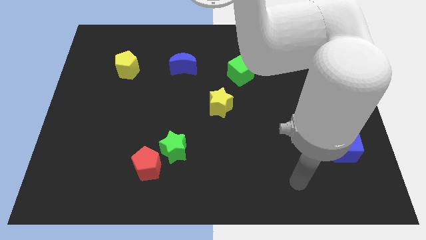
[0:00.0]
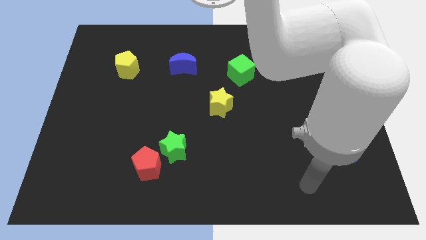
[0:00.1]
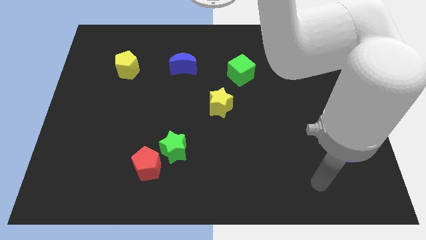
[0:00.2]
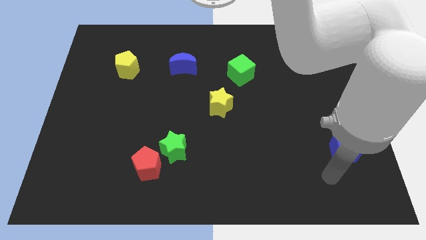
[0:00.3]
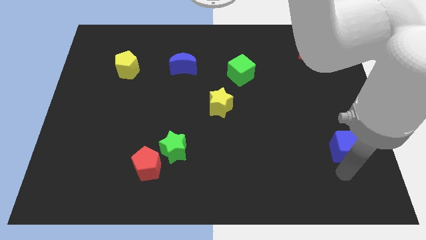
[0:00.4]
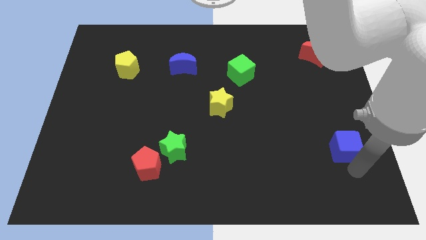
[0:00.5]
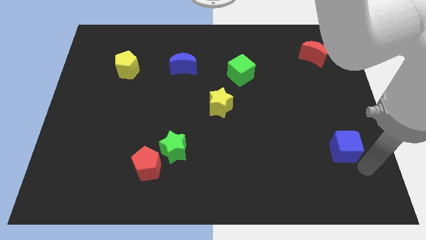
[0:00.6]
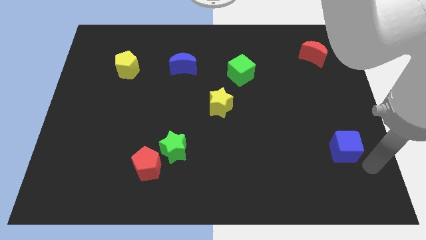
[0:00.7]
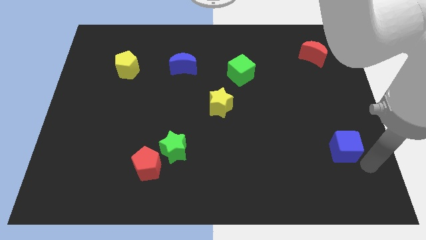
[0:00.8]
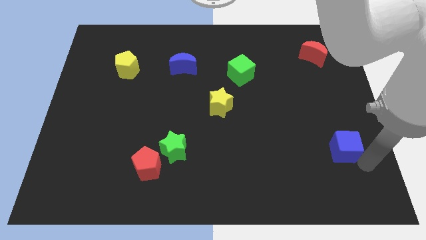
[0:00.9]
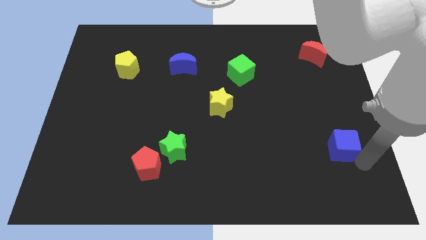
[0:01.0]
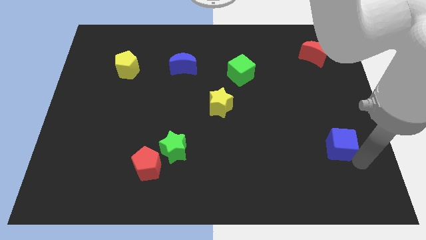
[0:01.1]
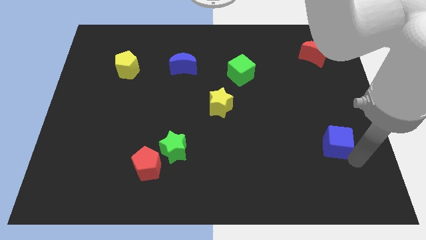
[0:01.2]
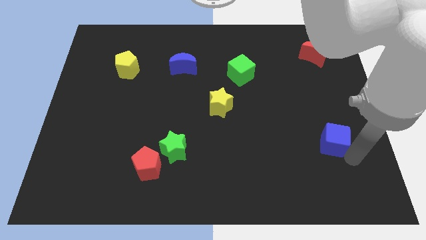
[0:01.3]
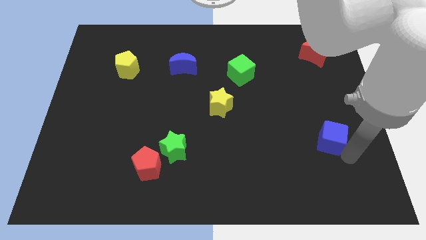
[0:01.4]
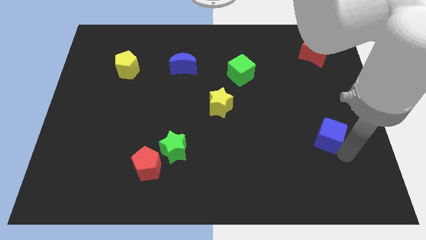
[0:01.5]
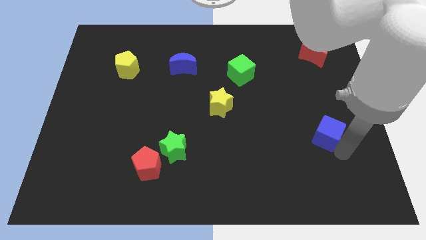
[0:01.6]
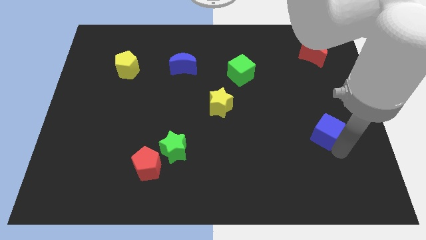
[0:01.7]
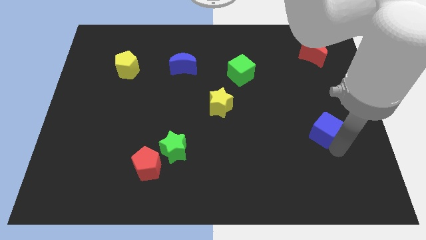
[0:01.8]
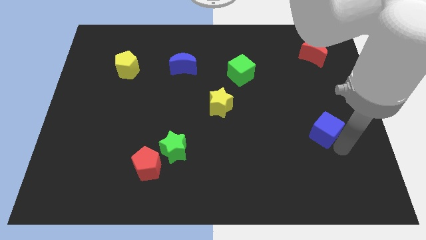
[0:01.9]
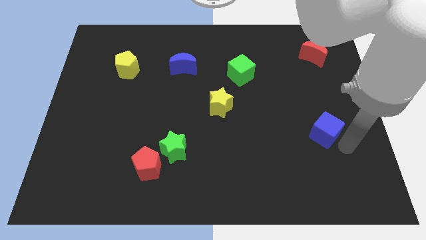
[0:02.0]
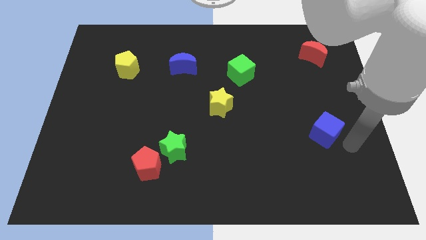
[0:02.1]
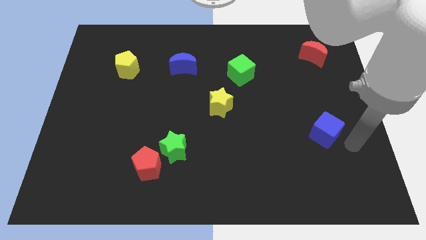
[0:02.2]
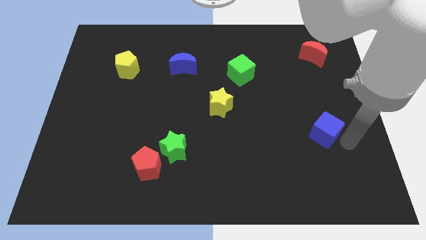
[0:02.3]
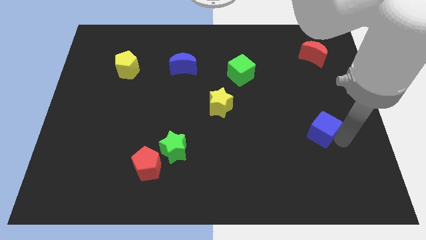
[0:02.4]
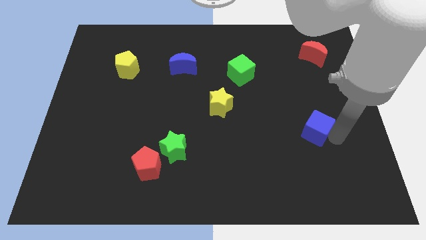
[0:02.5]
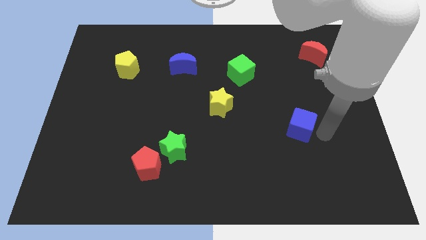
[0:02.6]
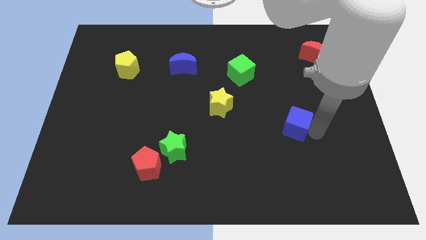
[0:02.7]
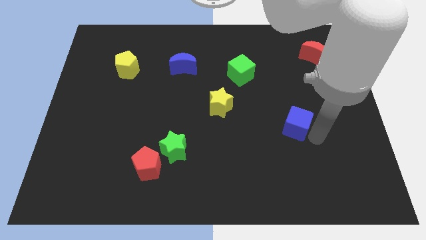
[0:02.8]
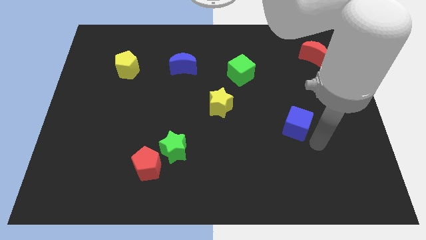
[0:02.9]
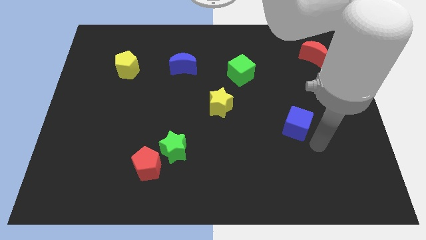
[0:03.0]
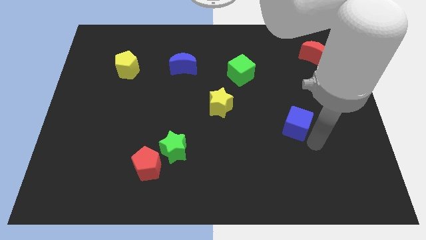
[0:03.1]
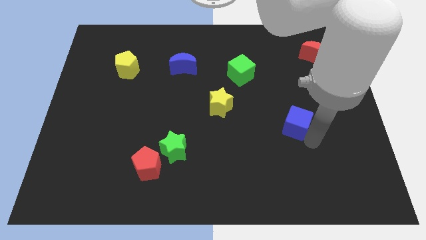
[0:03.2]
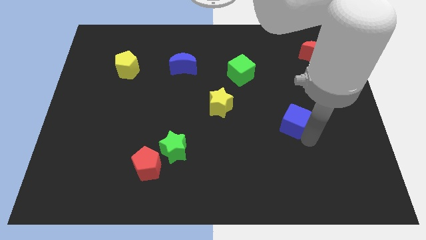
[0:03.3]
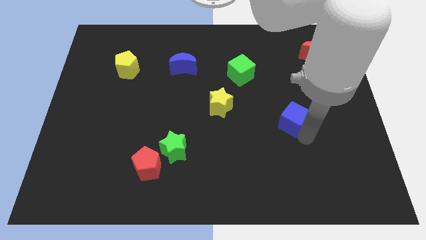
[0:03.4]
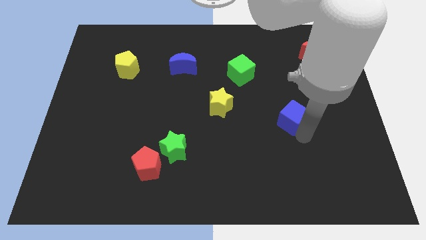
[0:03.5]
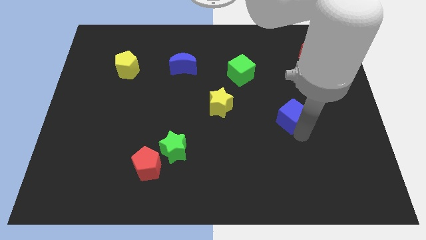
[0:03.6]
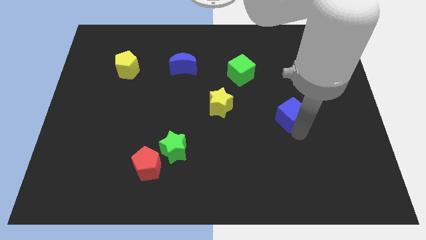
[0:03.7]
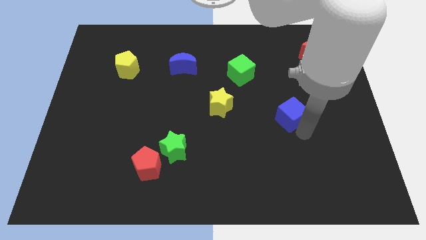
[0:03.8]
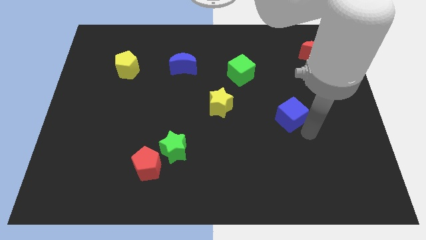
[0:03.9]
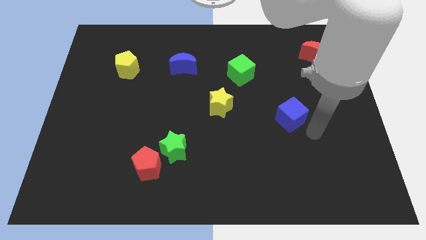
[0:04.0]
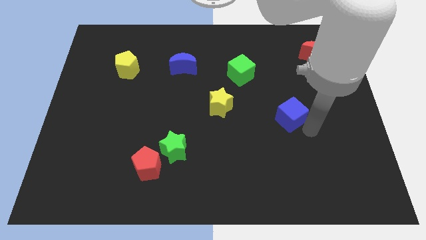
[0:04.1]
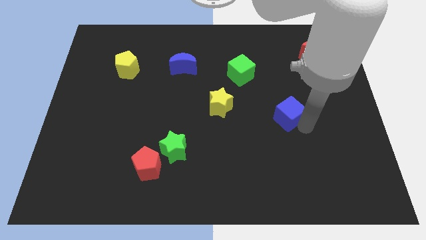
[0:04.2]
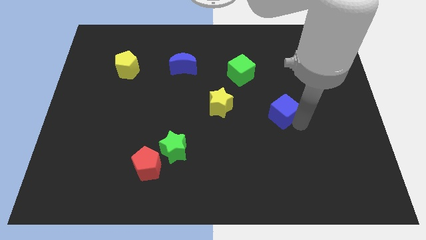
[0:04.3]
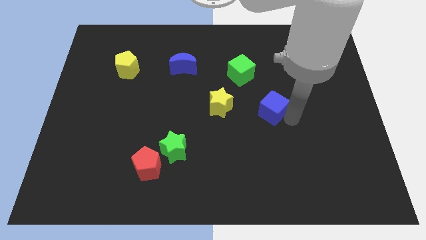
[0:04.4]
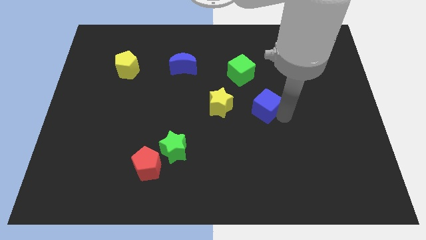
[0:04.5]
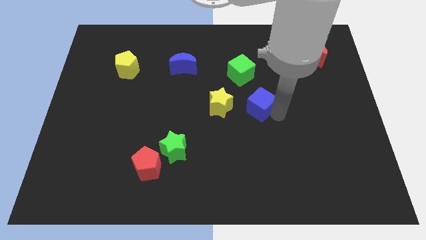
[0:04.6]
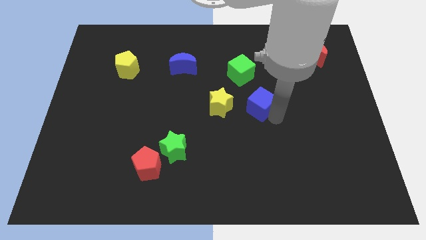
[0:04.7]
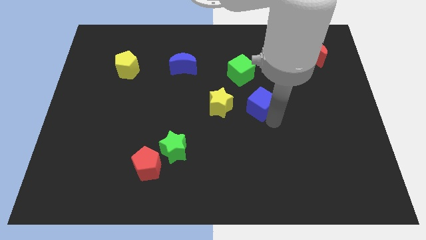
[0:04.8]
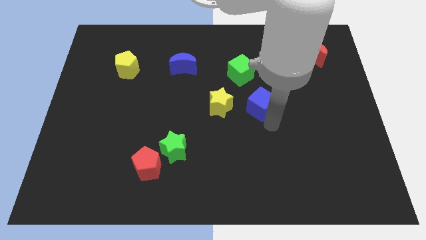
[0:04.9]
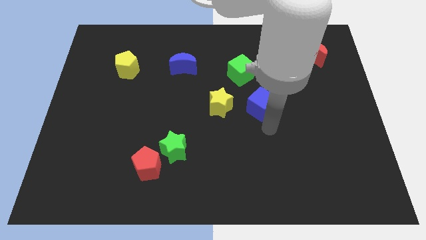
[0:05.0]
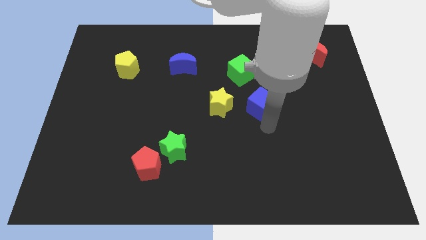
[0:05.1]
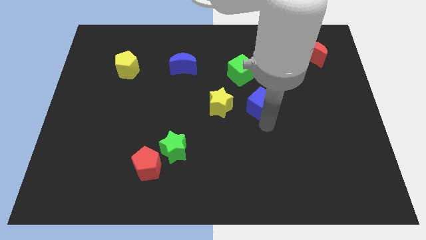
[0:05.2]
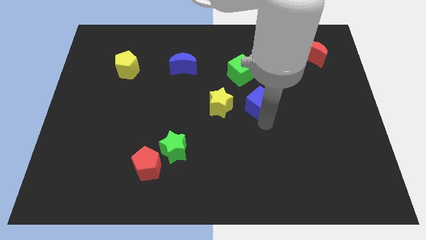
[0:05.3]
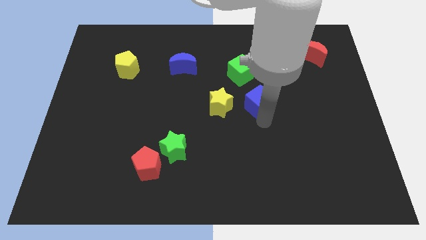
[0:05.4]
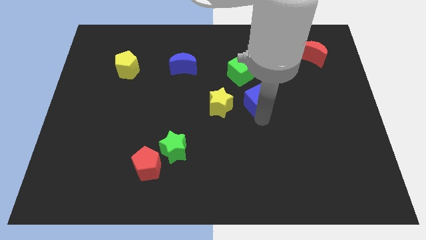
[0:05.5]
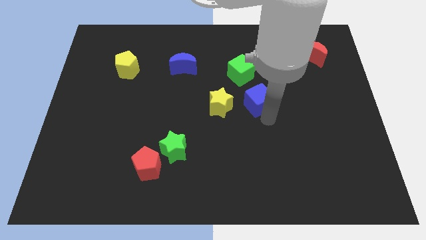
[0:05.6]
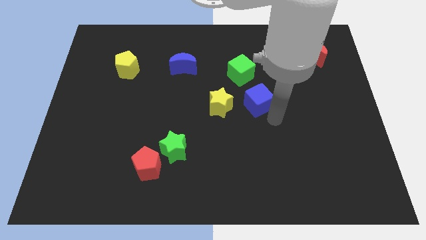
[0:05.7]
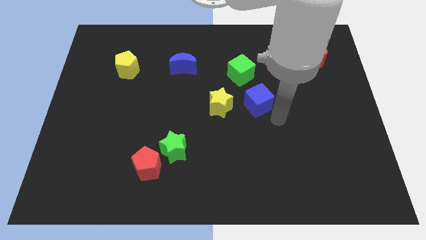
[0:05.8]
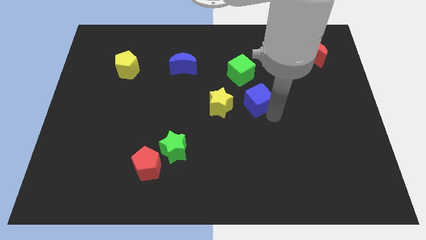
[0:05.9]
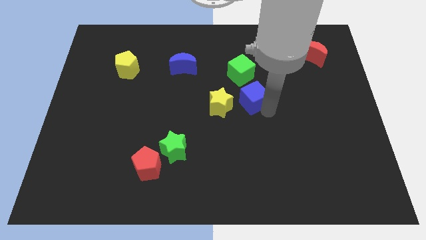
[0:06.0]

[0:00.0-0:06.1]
slide the blue cube to the top right side of the yellow star

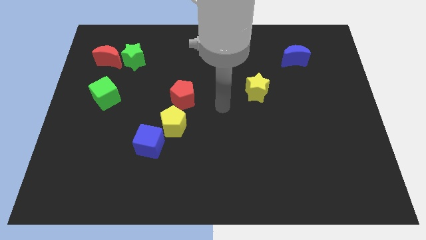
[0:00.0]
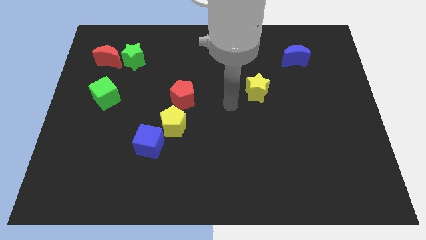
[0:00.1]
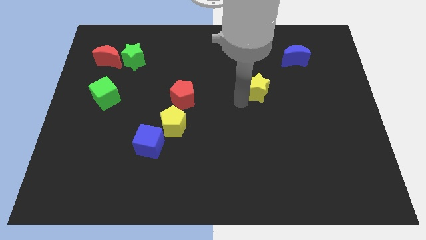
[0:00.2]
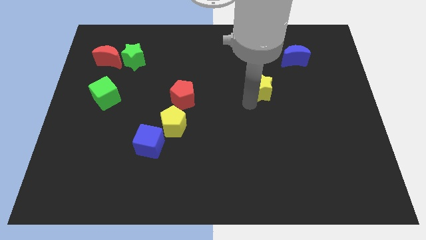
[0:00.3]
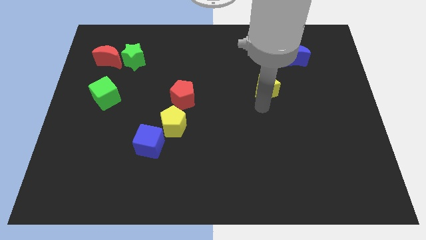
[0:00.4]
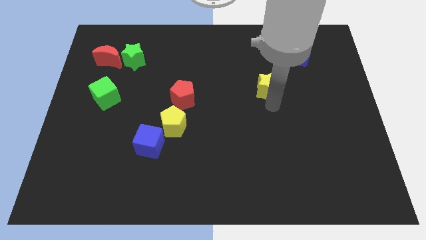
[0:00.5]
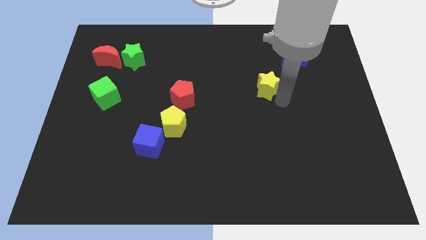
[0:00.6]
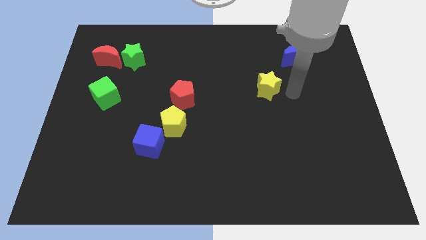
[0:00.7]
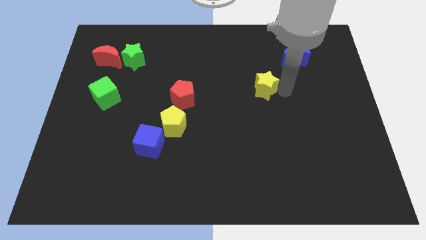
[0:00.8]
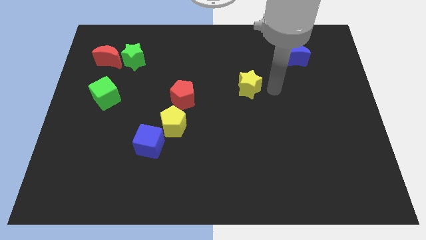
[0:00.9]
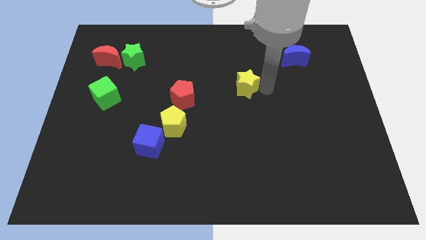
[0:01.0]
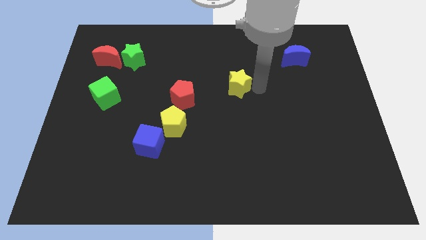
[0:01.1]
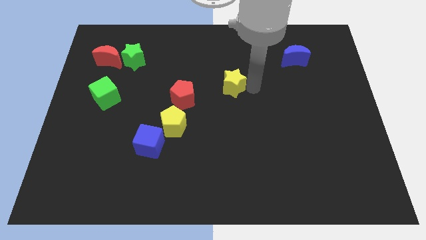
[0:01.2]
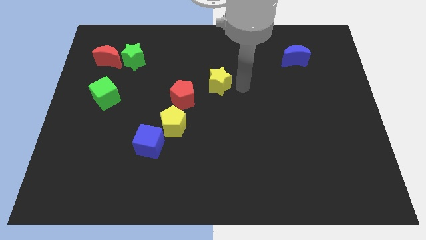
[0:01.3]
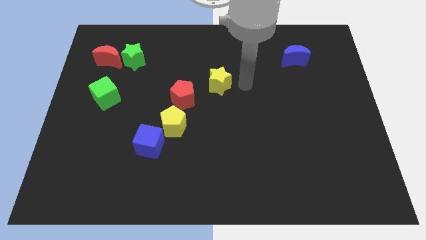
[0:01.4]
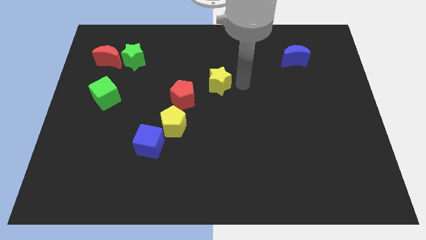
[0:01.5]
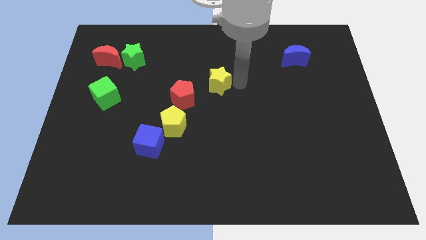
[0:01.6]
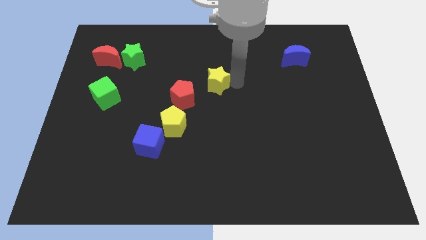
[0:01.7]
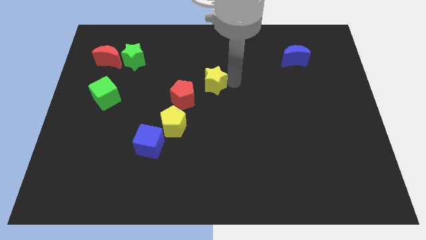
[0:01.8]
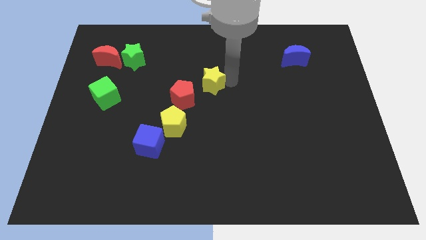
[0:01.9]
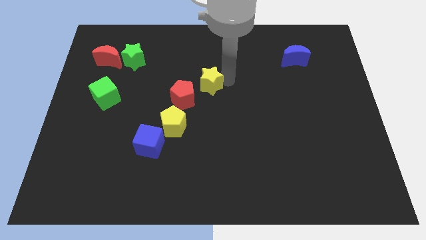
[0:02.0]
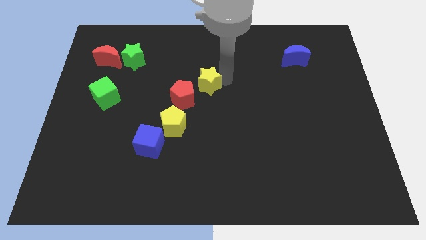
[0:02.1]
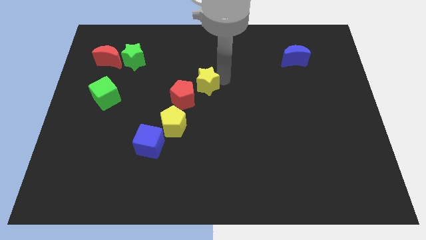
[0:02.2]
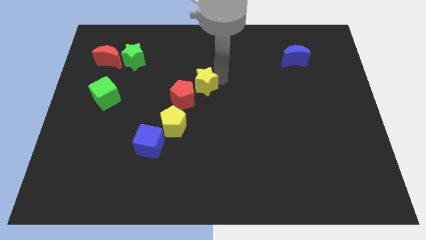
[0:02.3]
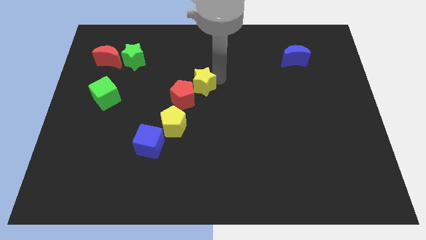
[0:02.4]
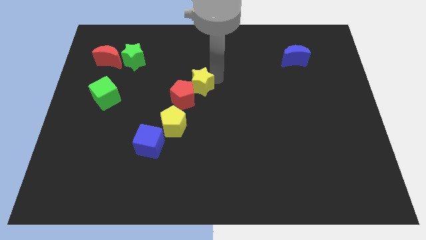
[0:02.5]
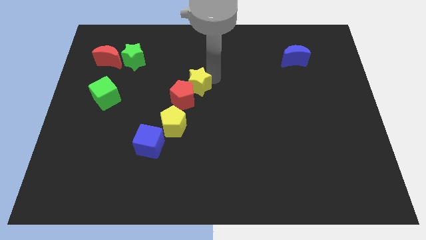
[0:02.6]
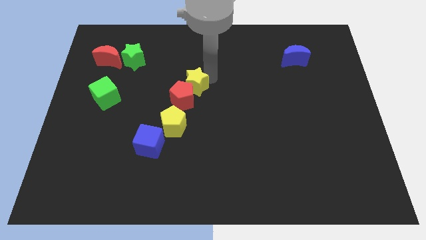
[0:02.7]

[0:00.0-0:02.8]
slide the yellow star to the top side of the yellow pentagon
